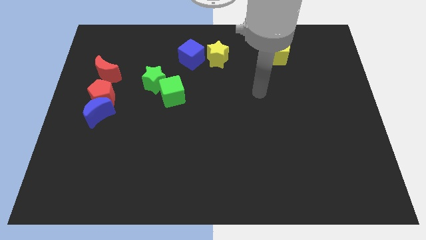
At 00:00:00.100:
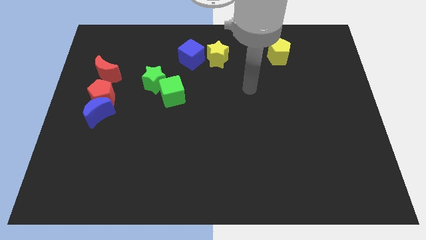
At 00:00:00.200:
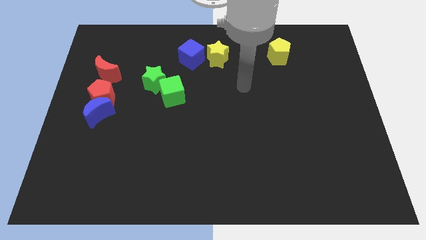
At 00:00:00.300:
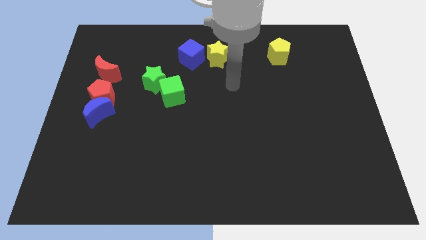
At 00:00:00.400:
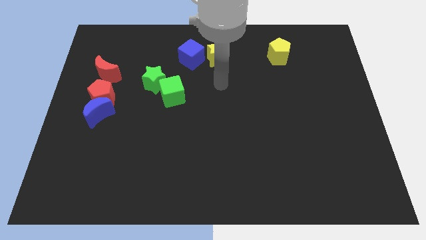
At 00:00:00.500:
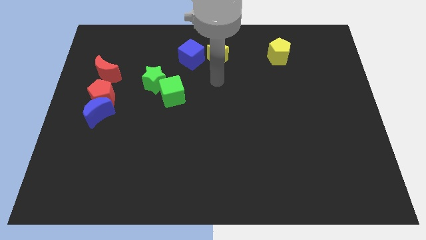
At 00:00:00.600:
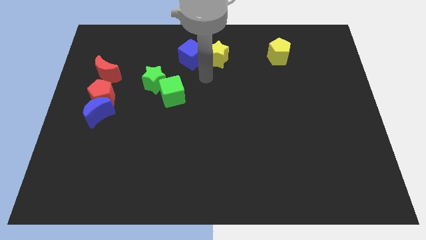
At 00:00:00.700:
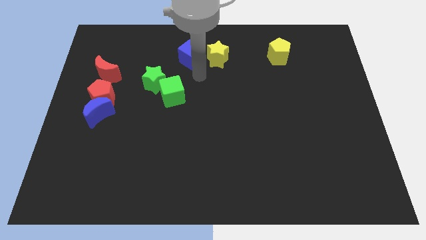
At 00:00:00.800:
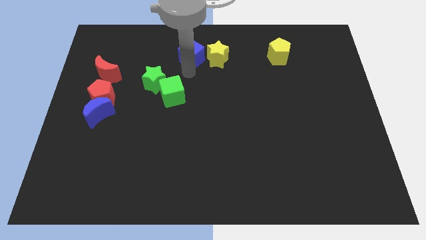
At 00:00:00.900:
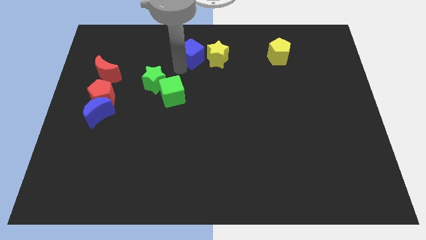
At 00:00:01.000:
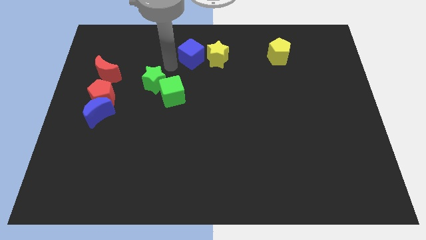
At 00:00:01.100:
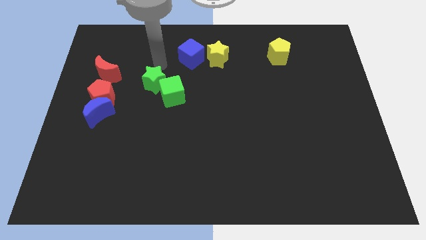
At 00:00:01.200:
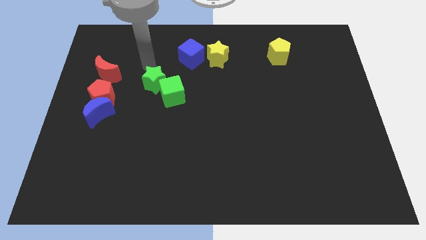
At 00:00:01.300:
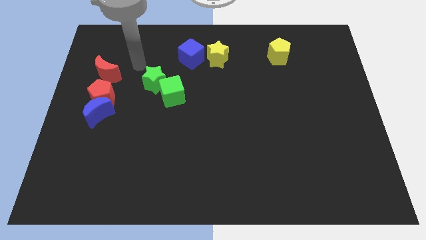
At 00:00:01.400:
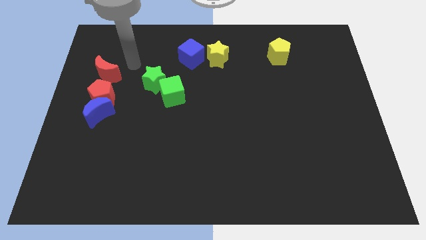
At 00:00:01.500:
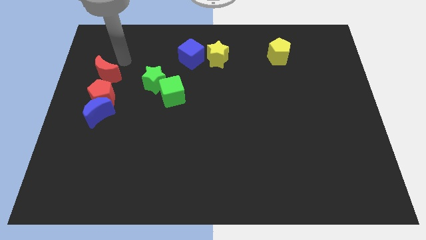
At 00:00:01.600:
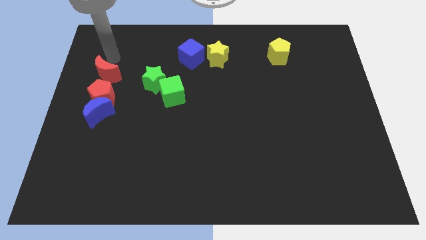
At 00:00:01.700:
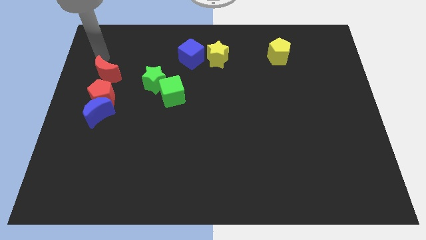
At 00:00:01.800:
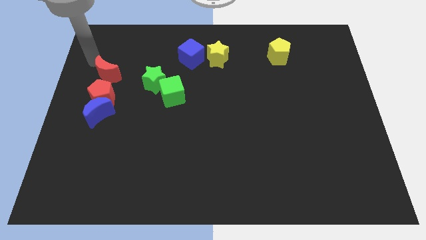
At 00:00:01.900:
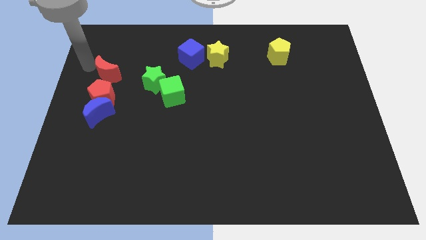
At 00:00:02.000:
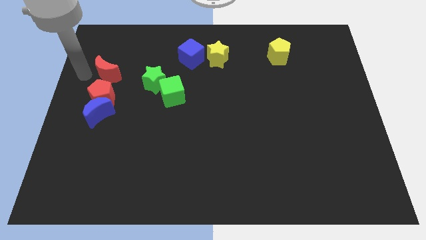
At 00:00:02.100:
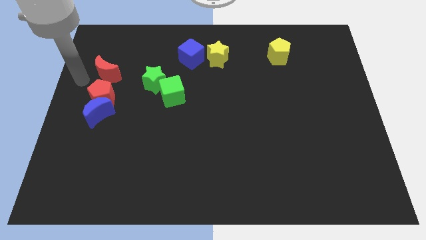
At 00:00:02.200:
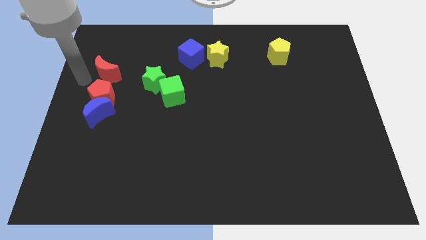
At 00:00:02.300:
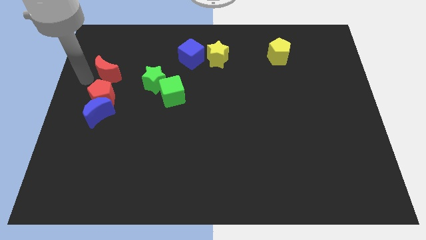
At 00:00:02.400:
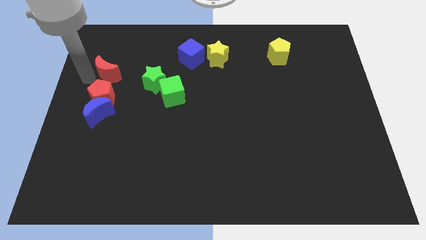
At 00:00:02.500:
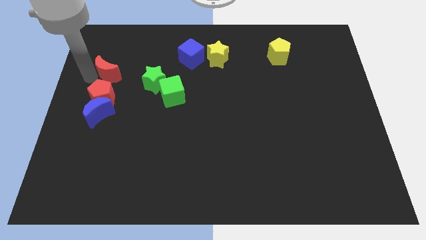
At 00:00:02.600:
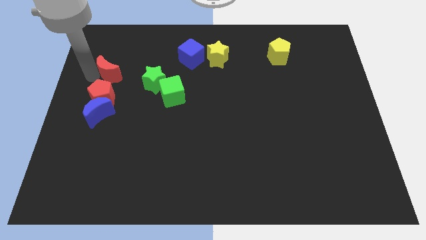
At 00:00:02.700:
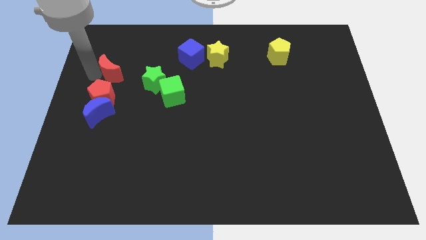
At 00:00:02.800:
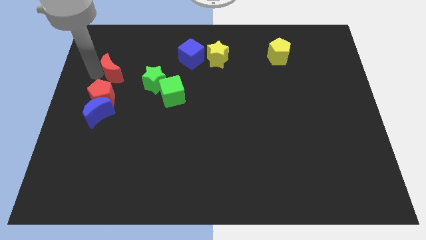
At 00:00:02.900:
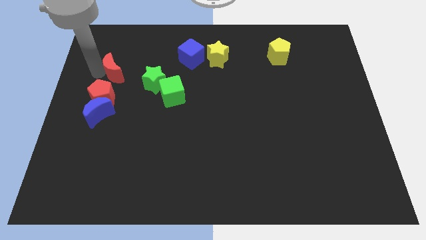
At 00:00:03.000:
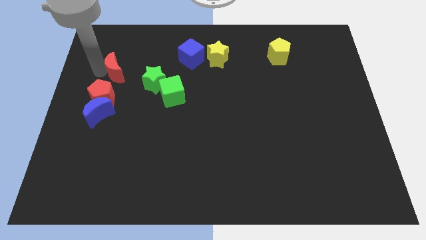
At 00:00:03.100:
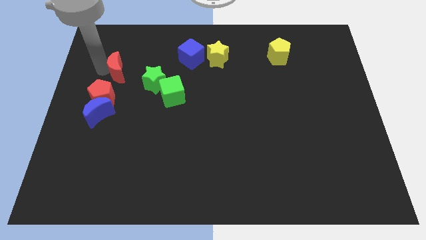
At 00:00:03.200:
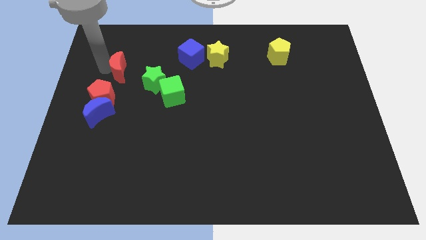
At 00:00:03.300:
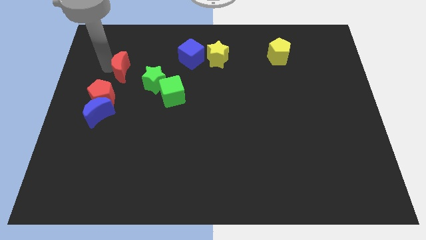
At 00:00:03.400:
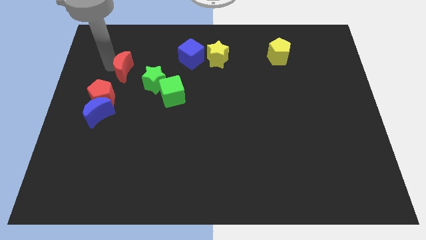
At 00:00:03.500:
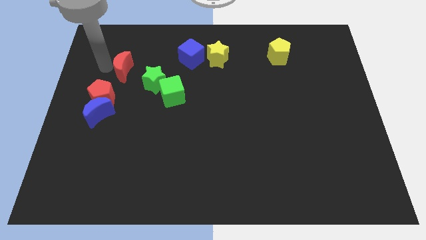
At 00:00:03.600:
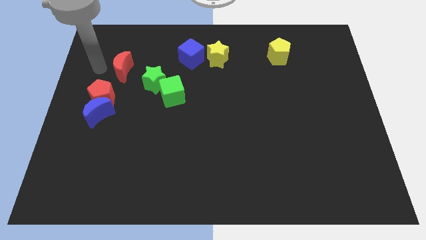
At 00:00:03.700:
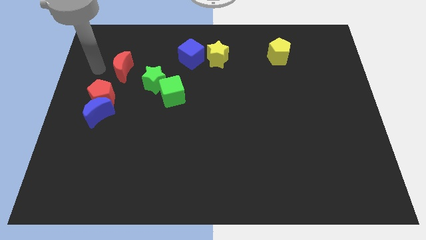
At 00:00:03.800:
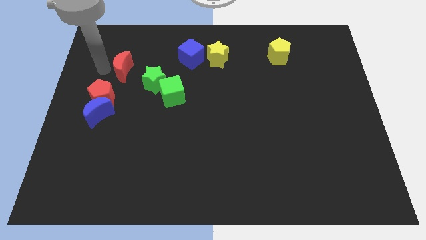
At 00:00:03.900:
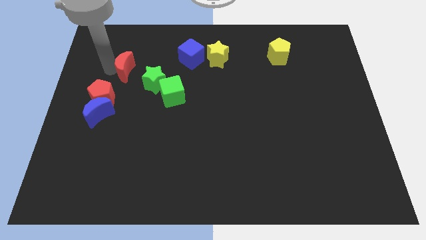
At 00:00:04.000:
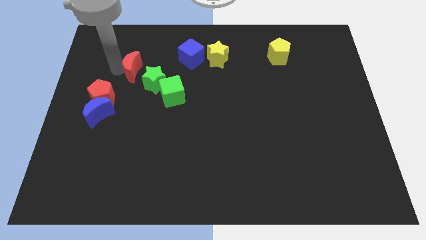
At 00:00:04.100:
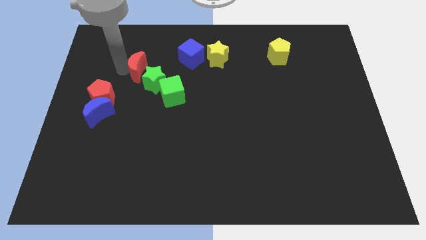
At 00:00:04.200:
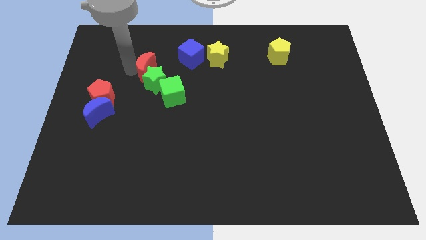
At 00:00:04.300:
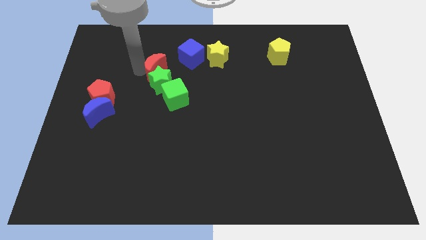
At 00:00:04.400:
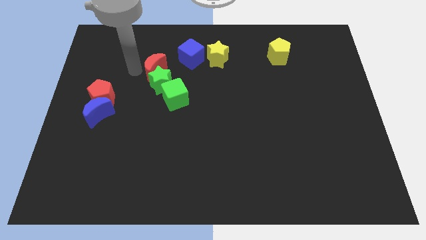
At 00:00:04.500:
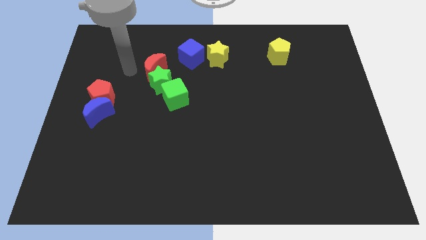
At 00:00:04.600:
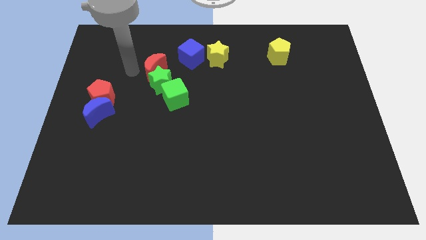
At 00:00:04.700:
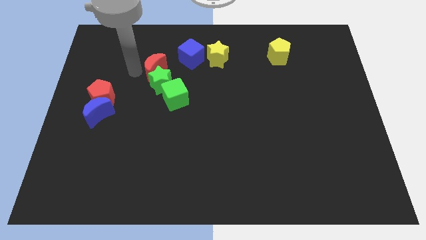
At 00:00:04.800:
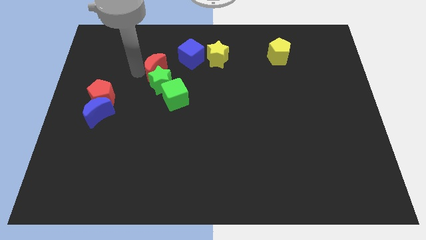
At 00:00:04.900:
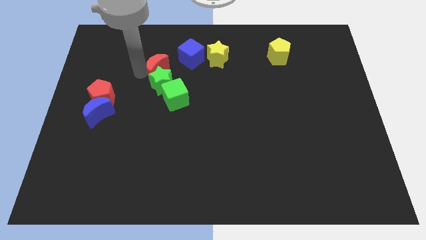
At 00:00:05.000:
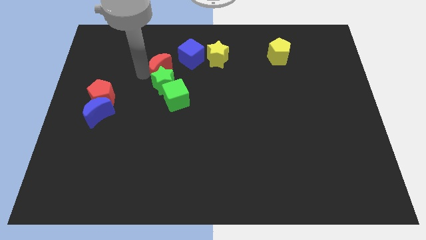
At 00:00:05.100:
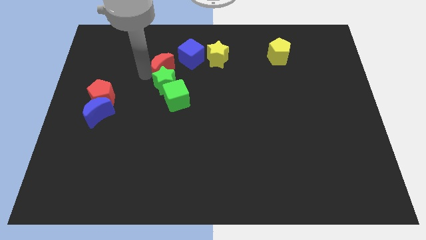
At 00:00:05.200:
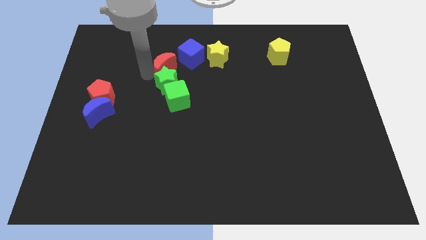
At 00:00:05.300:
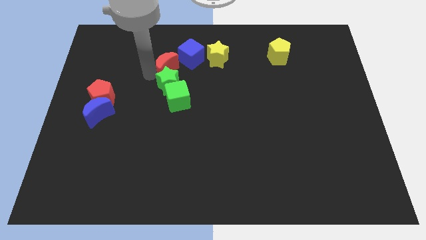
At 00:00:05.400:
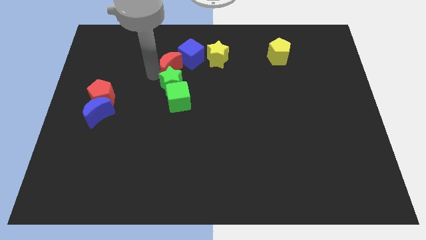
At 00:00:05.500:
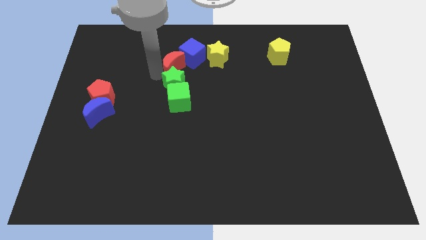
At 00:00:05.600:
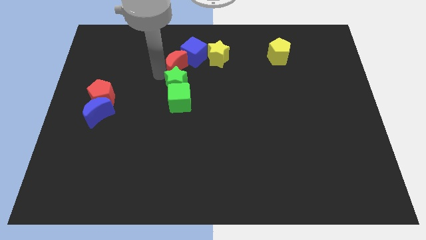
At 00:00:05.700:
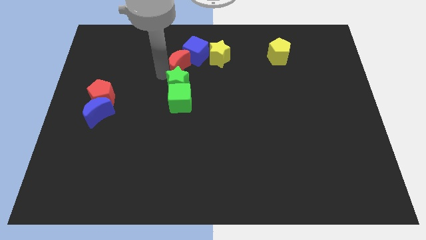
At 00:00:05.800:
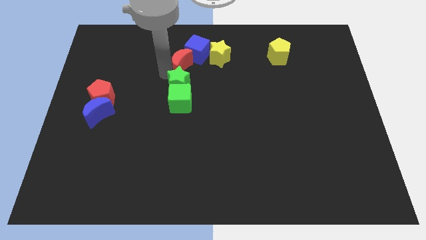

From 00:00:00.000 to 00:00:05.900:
slide the red moon to the bottom left of the yellow star

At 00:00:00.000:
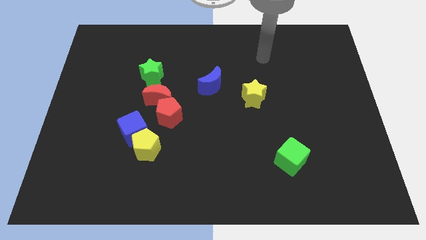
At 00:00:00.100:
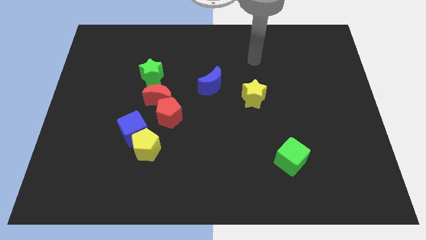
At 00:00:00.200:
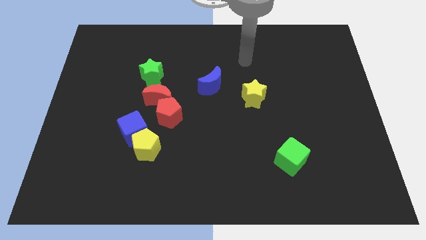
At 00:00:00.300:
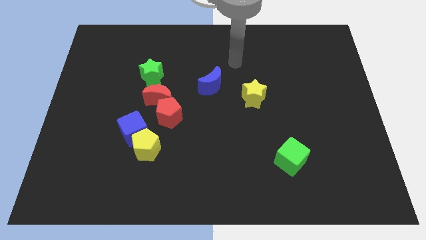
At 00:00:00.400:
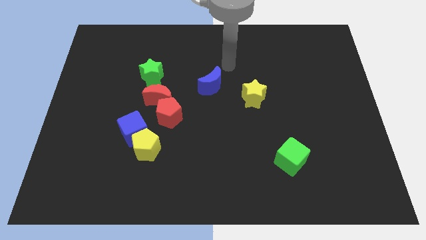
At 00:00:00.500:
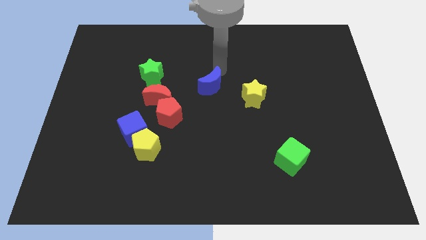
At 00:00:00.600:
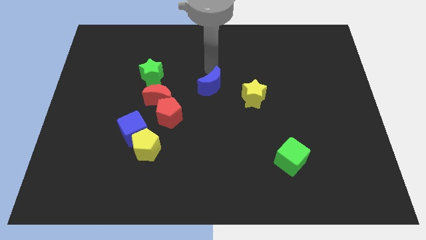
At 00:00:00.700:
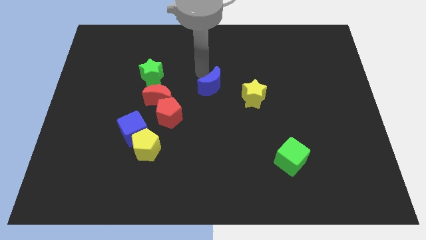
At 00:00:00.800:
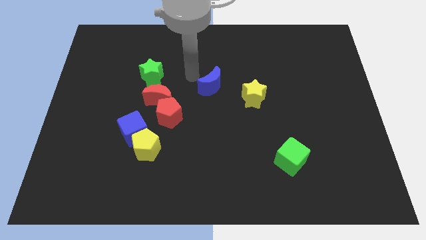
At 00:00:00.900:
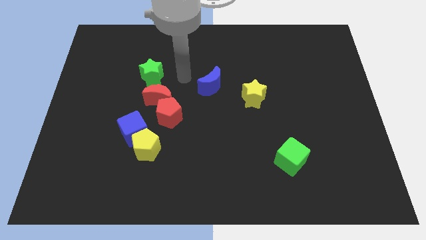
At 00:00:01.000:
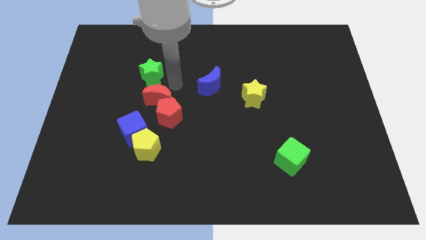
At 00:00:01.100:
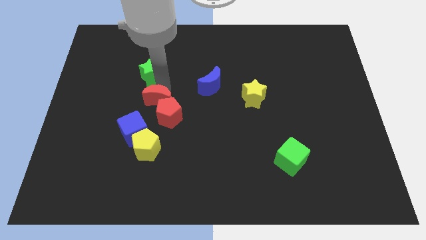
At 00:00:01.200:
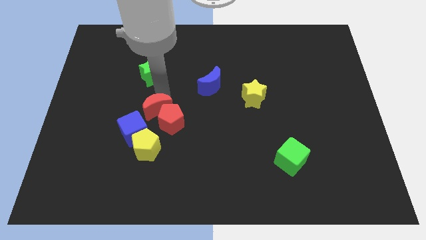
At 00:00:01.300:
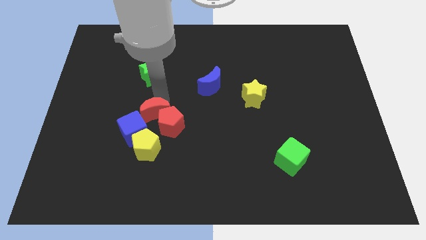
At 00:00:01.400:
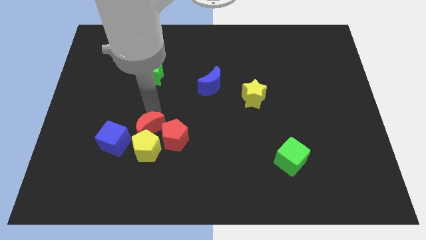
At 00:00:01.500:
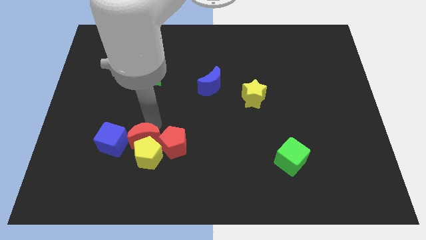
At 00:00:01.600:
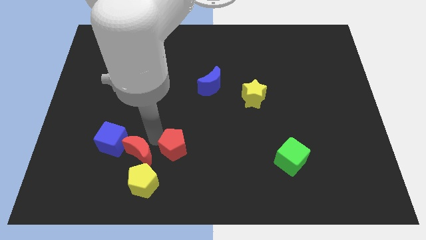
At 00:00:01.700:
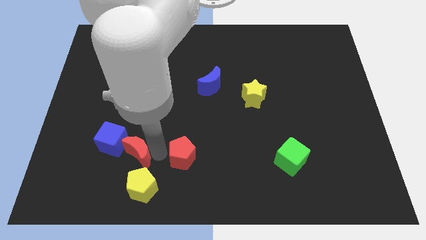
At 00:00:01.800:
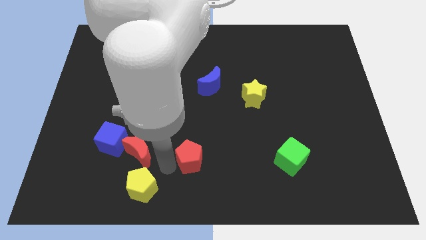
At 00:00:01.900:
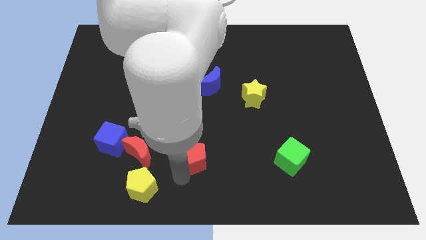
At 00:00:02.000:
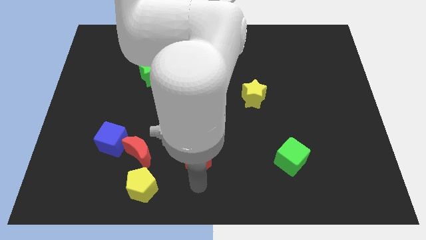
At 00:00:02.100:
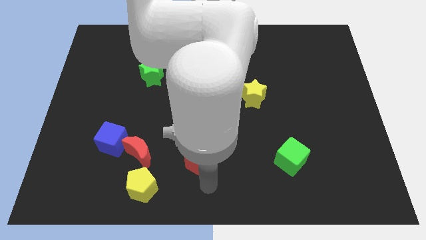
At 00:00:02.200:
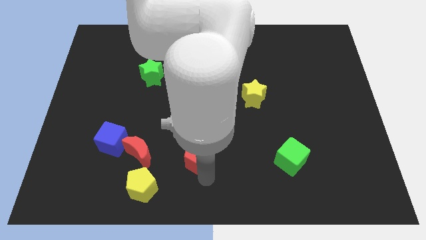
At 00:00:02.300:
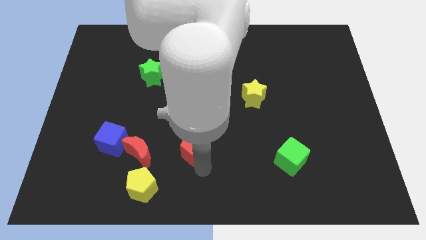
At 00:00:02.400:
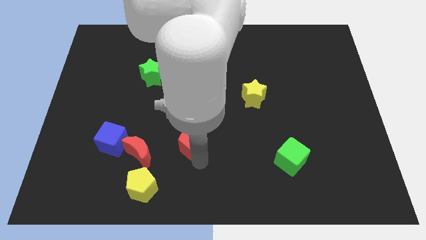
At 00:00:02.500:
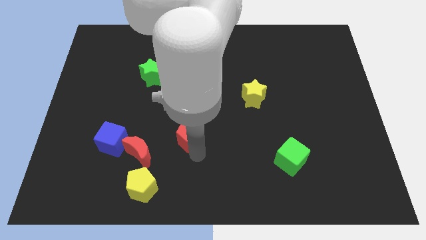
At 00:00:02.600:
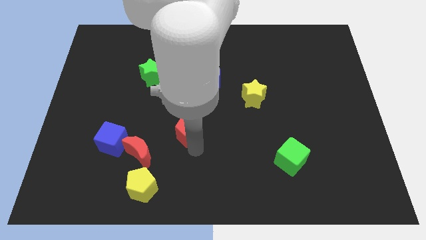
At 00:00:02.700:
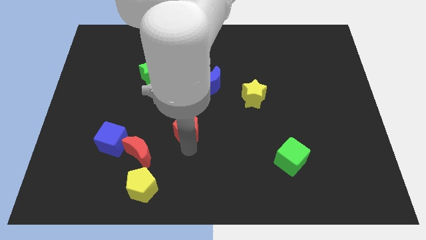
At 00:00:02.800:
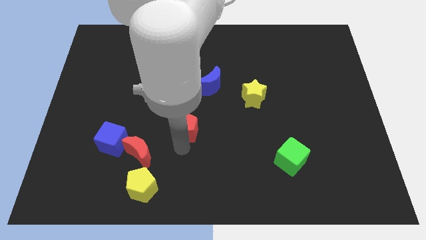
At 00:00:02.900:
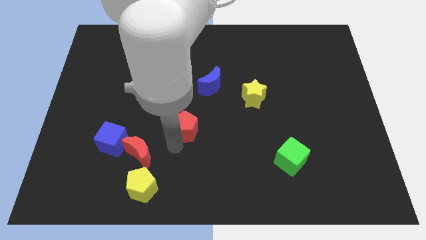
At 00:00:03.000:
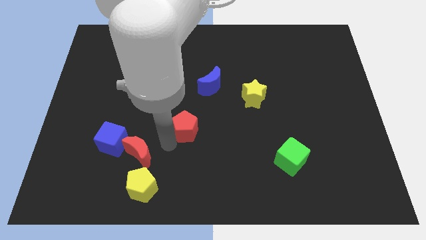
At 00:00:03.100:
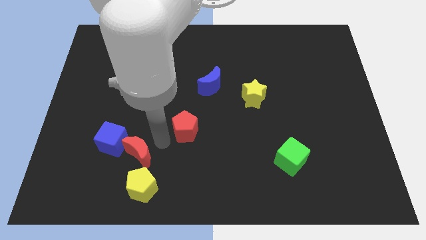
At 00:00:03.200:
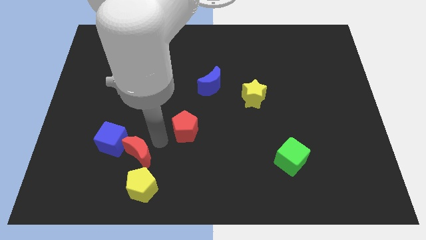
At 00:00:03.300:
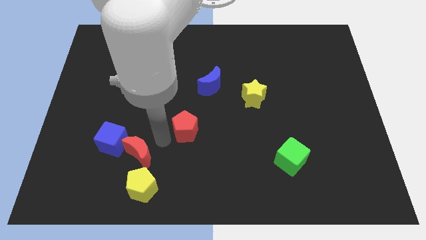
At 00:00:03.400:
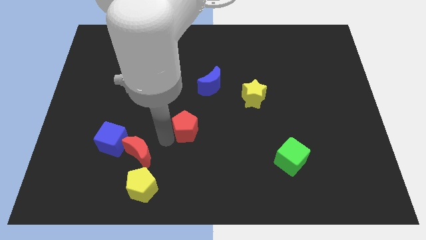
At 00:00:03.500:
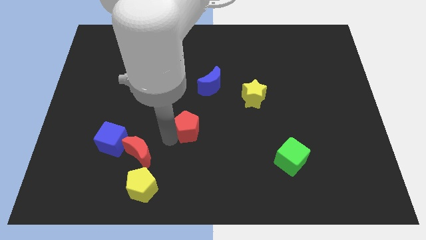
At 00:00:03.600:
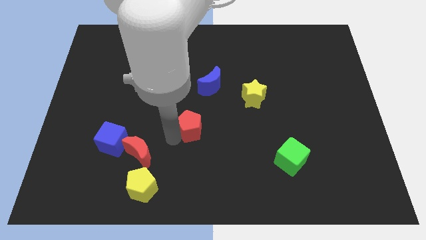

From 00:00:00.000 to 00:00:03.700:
slide the red pentagon to the bottom side of the blue moon
